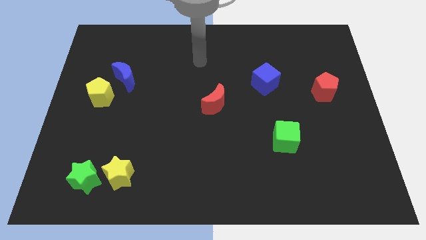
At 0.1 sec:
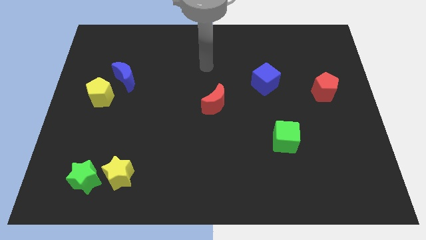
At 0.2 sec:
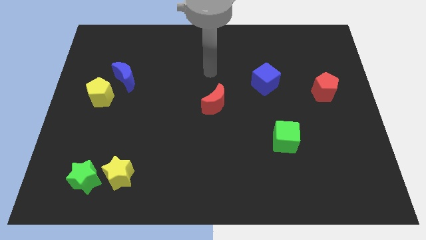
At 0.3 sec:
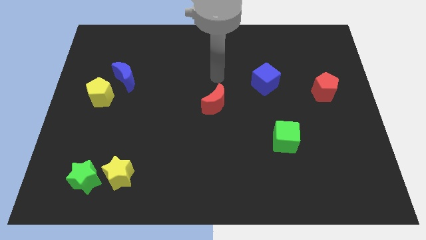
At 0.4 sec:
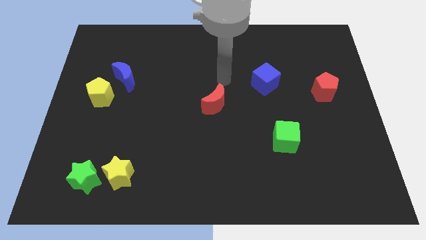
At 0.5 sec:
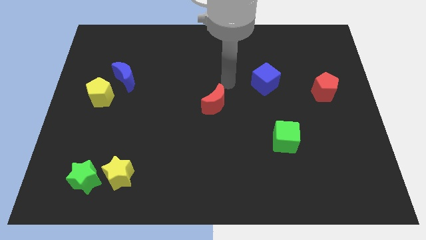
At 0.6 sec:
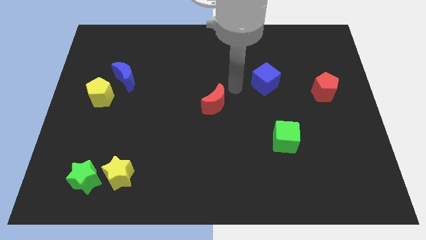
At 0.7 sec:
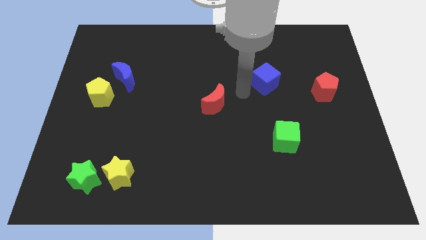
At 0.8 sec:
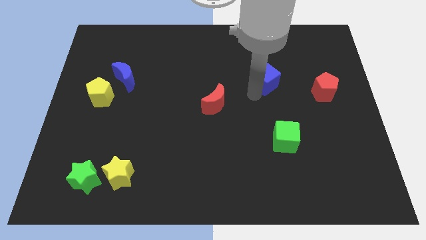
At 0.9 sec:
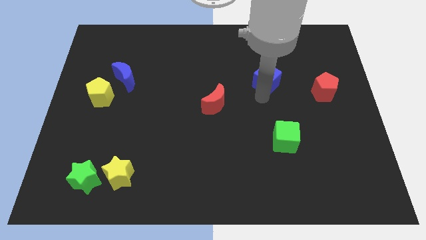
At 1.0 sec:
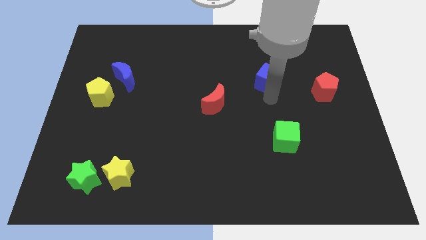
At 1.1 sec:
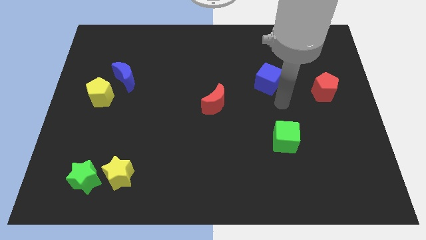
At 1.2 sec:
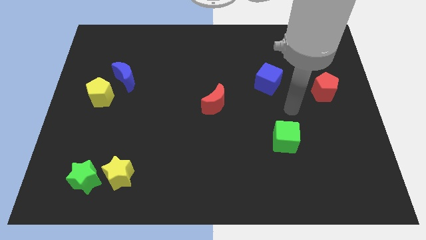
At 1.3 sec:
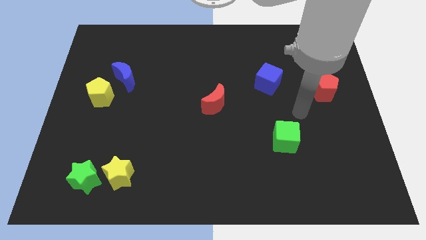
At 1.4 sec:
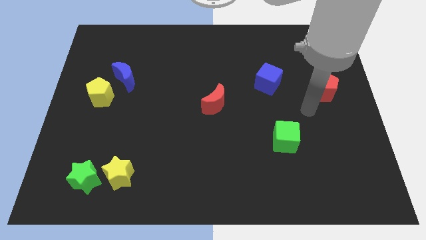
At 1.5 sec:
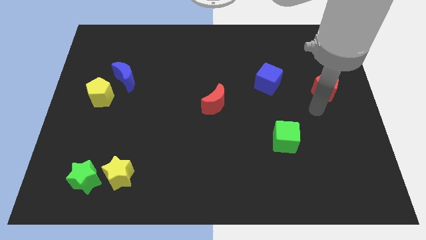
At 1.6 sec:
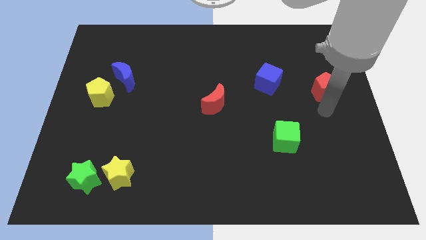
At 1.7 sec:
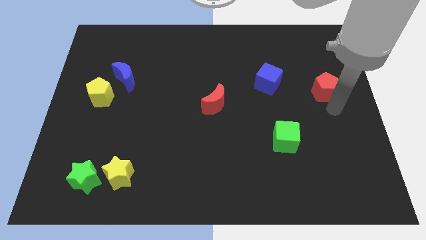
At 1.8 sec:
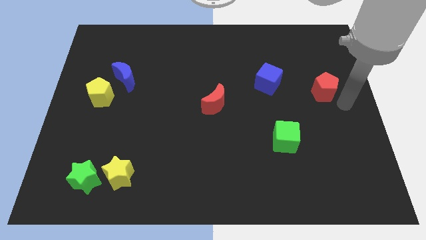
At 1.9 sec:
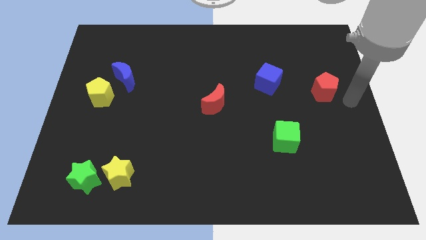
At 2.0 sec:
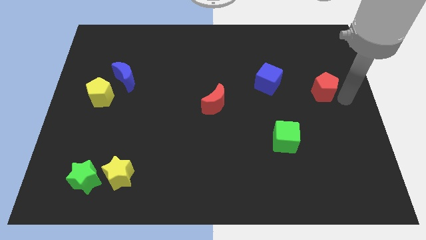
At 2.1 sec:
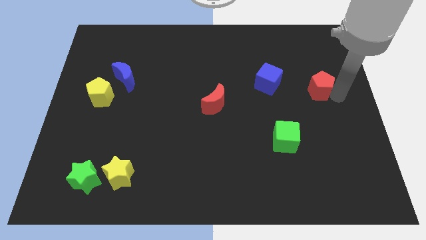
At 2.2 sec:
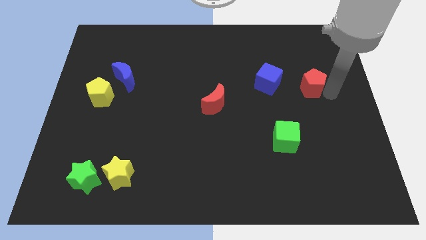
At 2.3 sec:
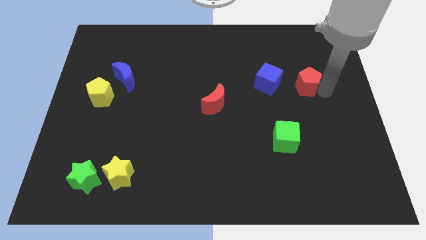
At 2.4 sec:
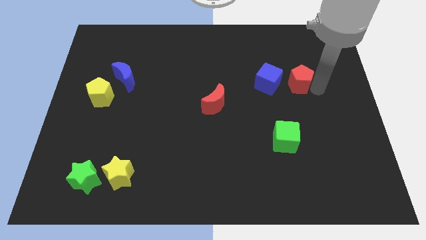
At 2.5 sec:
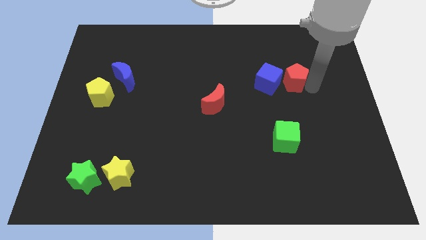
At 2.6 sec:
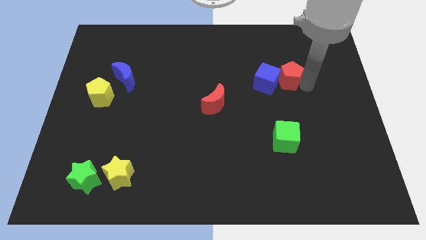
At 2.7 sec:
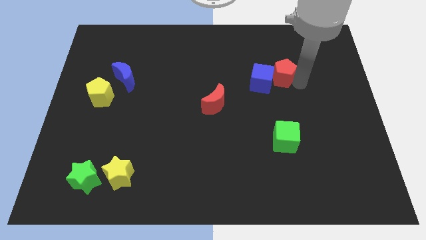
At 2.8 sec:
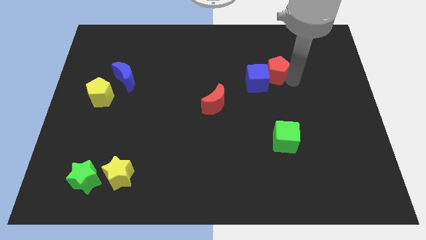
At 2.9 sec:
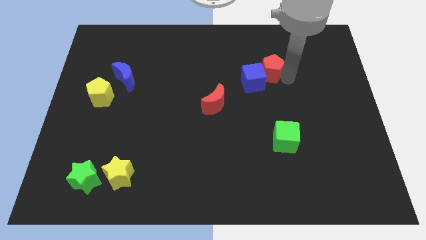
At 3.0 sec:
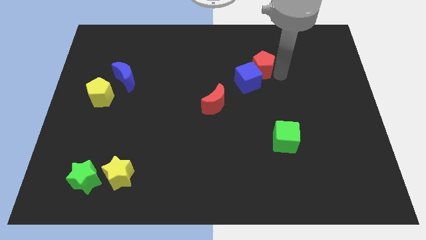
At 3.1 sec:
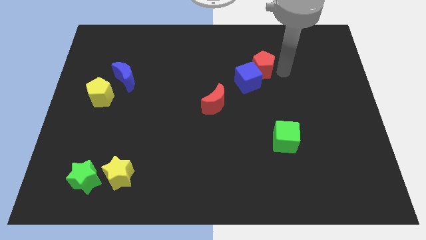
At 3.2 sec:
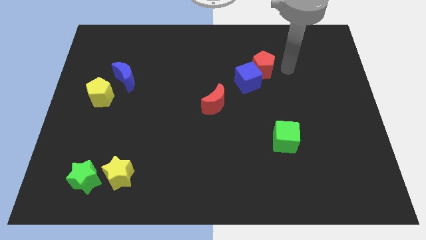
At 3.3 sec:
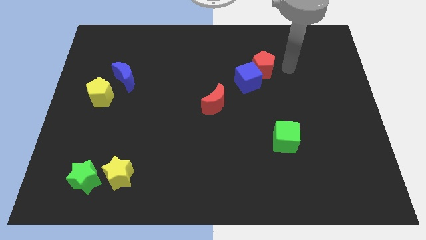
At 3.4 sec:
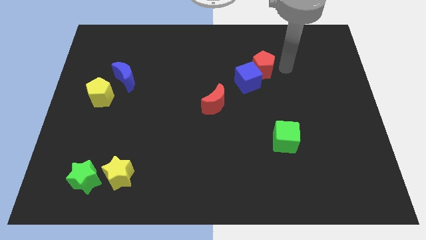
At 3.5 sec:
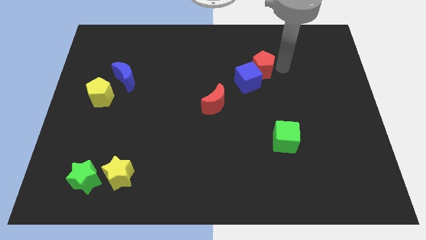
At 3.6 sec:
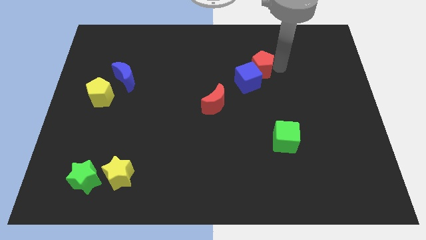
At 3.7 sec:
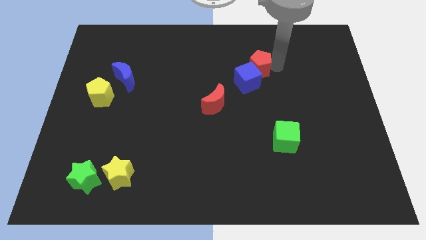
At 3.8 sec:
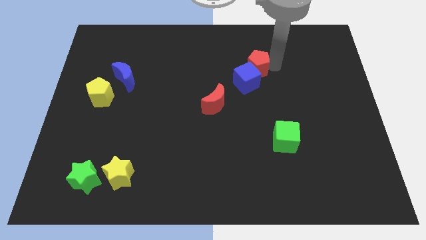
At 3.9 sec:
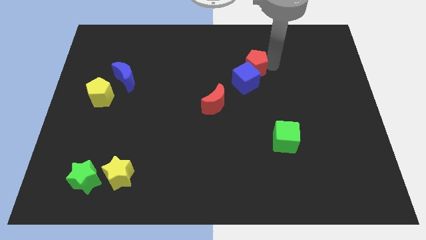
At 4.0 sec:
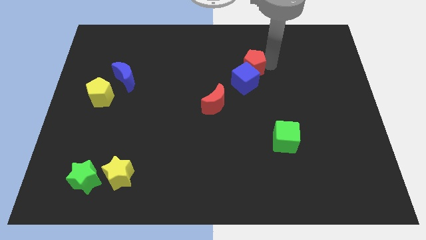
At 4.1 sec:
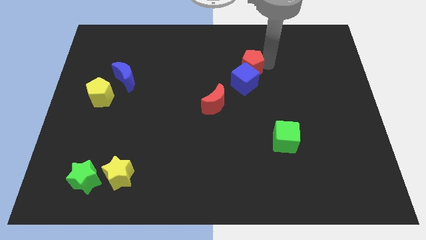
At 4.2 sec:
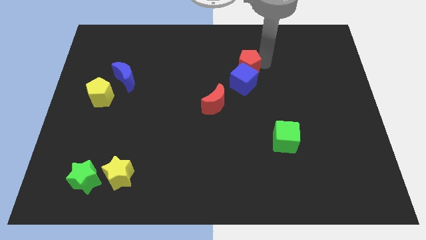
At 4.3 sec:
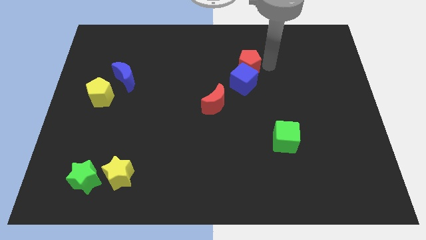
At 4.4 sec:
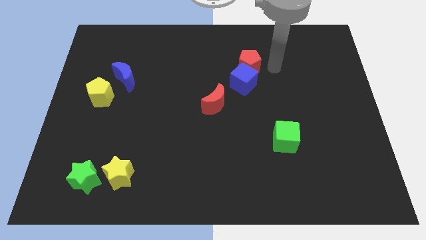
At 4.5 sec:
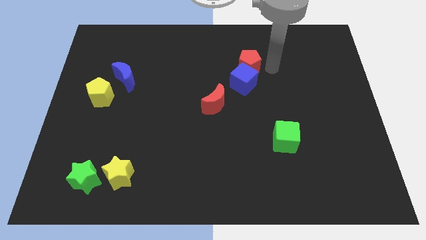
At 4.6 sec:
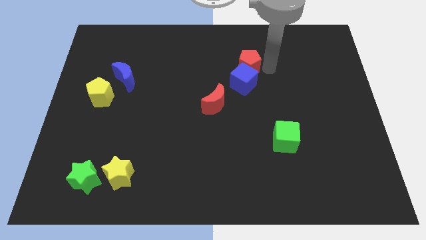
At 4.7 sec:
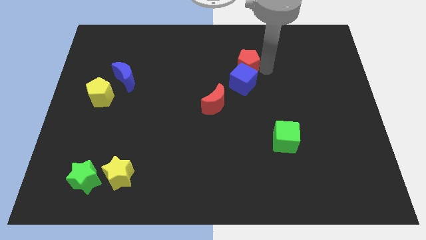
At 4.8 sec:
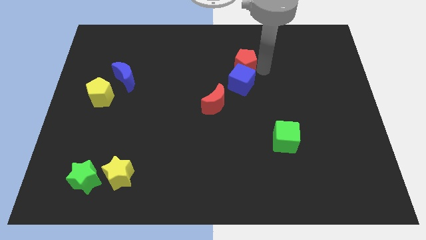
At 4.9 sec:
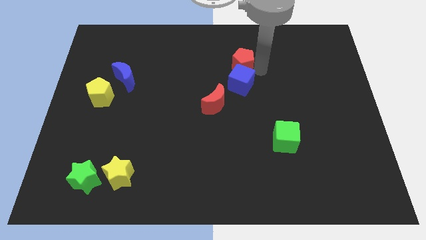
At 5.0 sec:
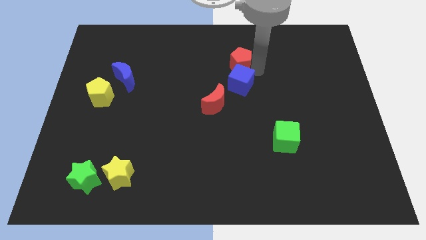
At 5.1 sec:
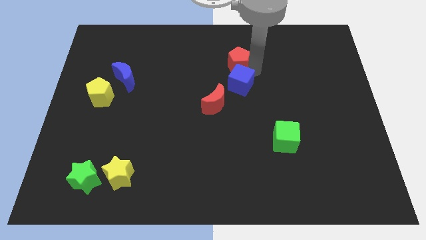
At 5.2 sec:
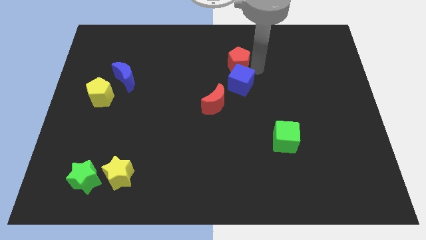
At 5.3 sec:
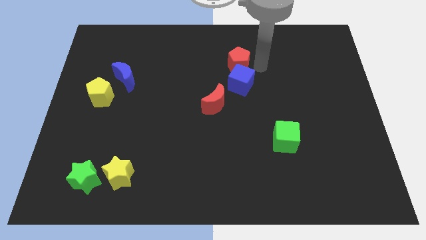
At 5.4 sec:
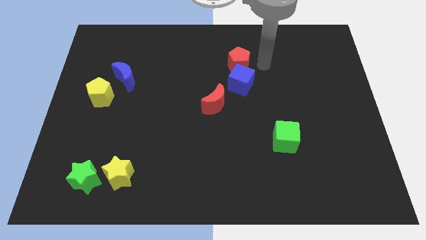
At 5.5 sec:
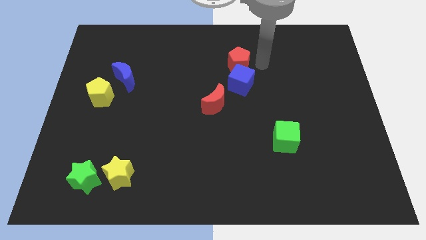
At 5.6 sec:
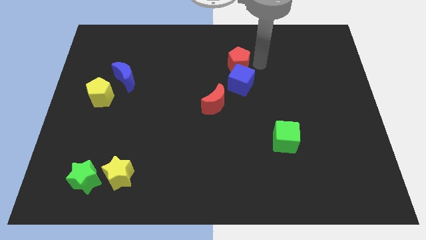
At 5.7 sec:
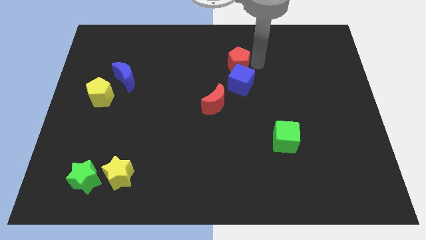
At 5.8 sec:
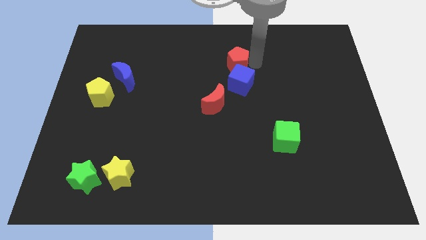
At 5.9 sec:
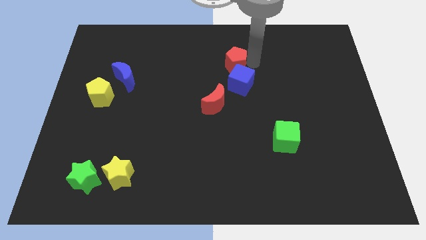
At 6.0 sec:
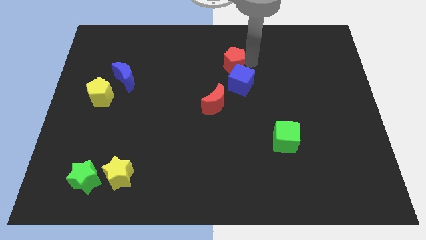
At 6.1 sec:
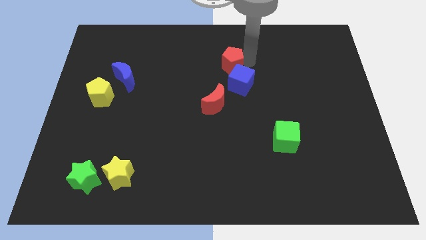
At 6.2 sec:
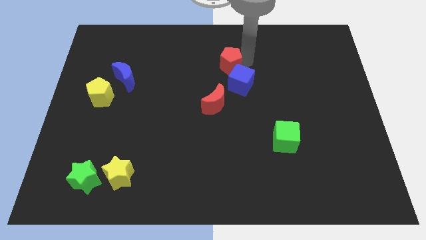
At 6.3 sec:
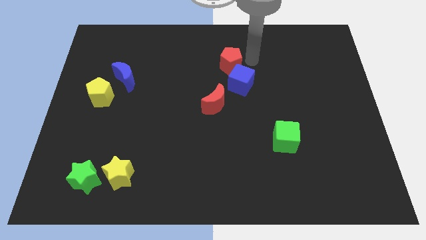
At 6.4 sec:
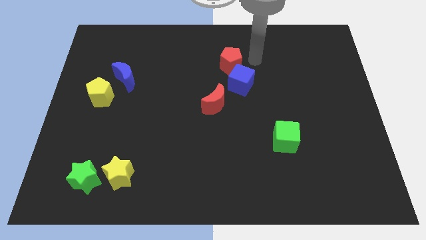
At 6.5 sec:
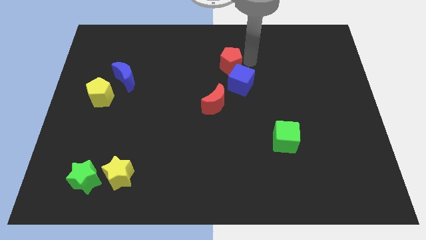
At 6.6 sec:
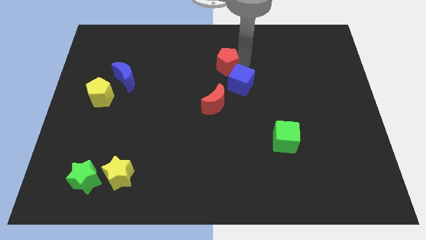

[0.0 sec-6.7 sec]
move the red pentagon left

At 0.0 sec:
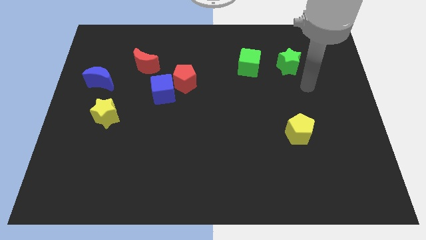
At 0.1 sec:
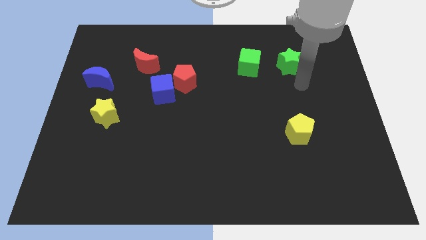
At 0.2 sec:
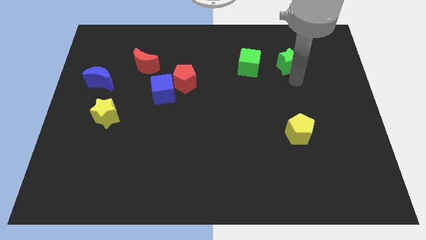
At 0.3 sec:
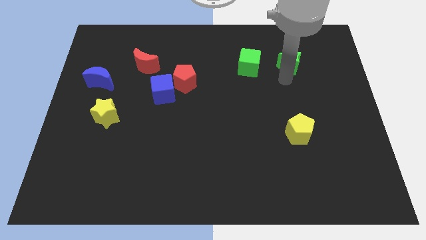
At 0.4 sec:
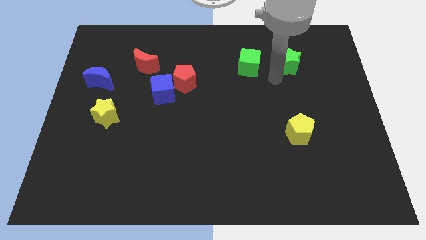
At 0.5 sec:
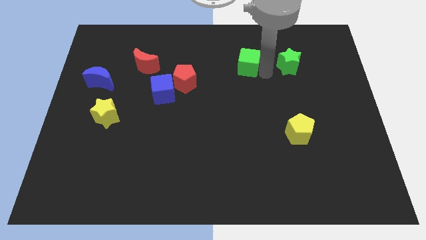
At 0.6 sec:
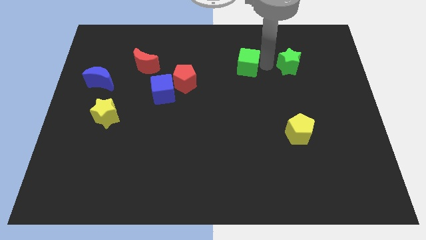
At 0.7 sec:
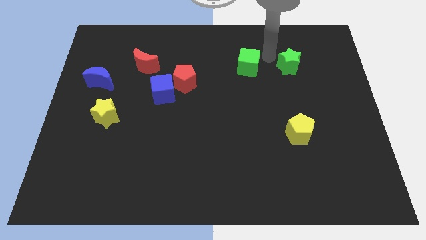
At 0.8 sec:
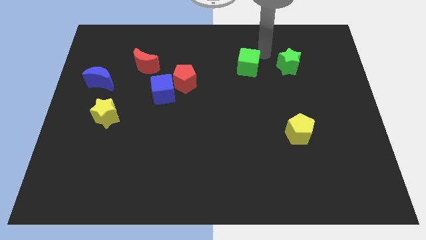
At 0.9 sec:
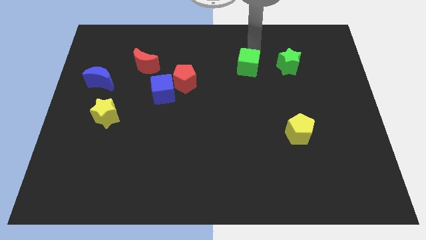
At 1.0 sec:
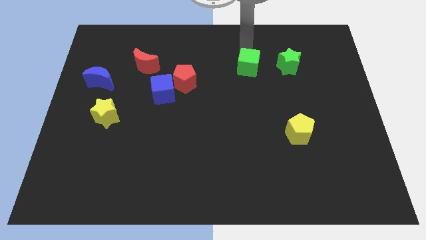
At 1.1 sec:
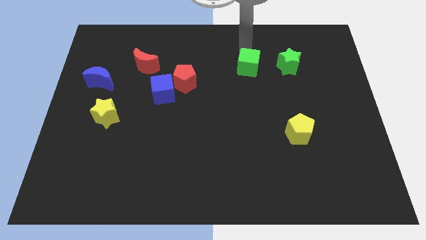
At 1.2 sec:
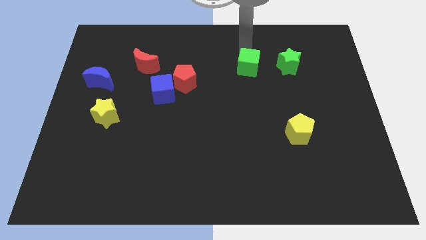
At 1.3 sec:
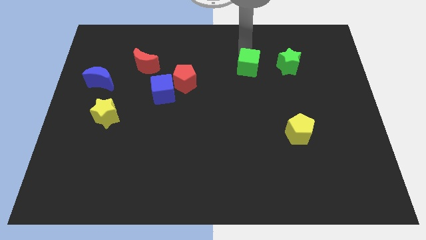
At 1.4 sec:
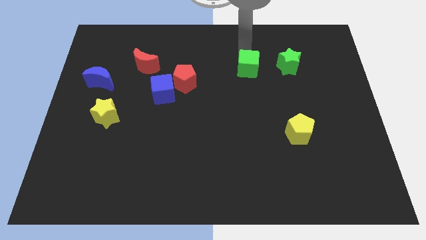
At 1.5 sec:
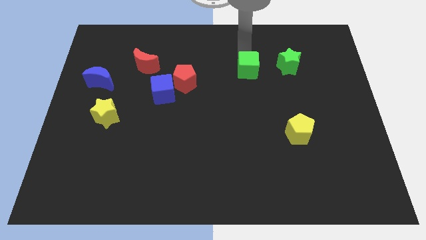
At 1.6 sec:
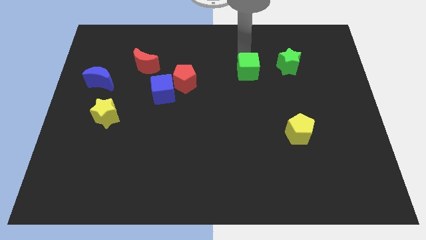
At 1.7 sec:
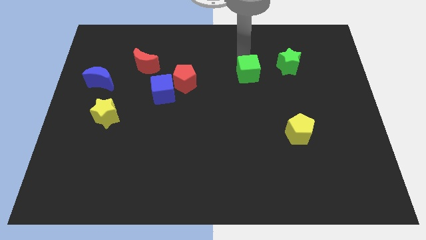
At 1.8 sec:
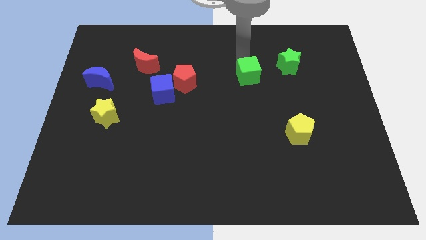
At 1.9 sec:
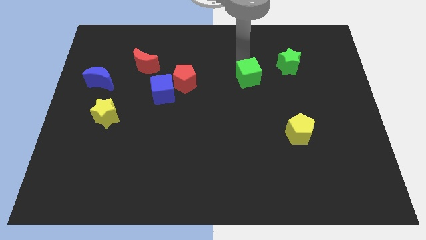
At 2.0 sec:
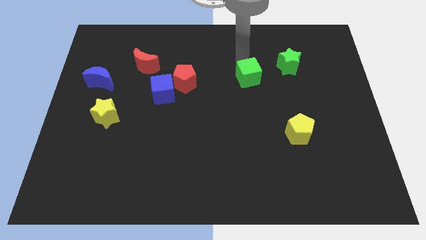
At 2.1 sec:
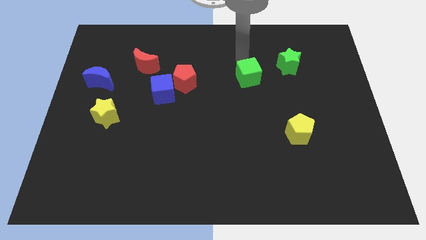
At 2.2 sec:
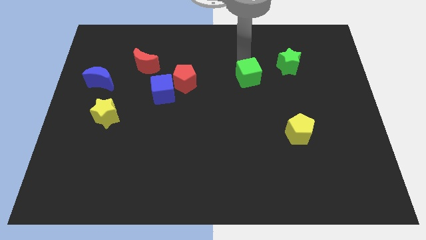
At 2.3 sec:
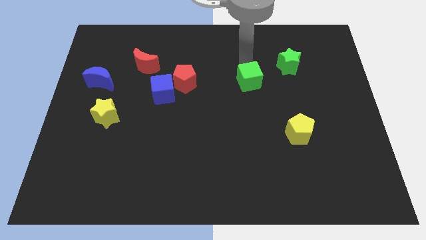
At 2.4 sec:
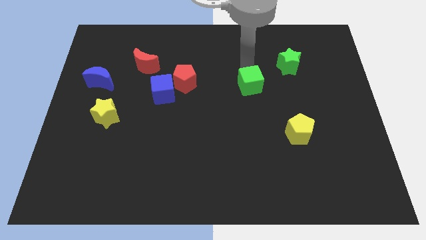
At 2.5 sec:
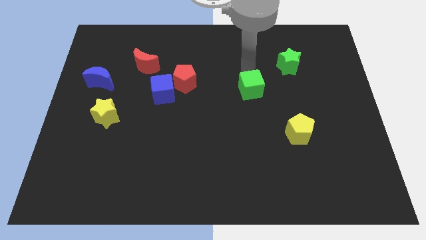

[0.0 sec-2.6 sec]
move the green cube a little bit down
